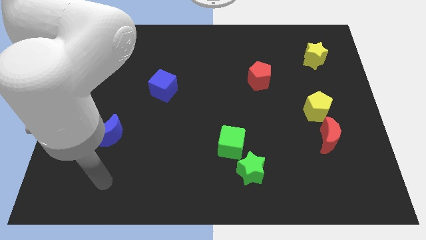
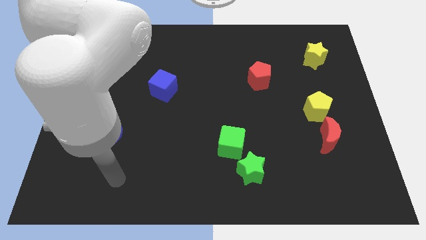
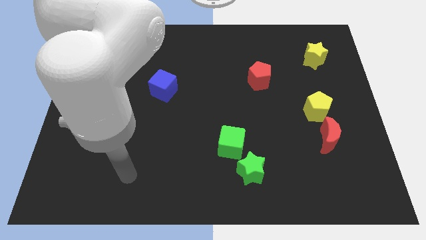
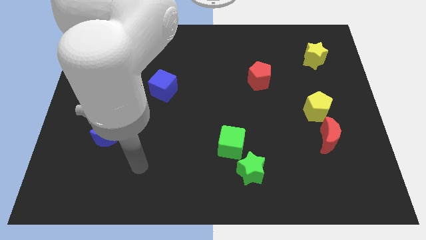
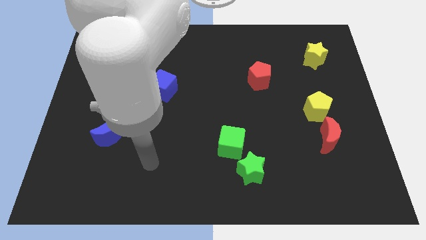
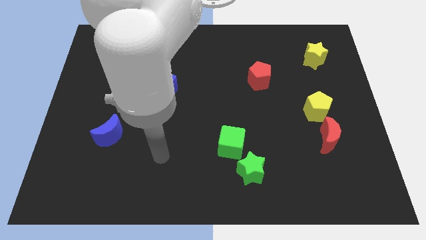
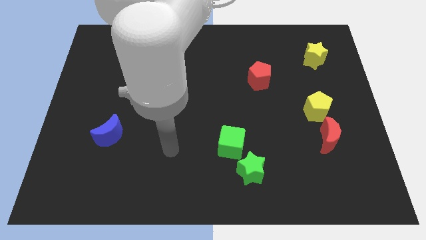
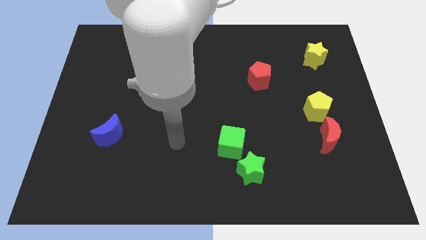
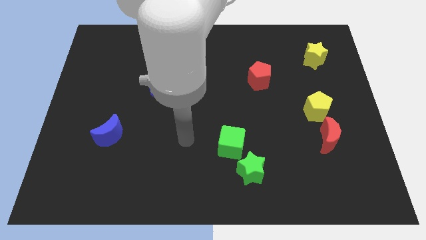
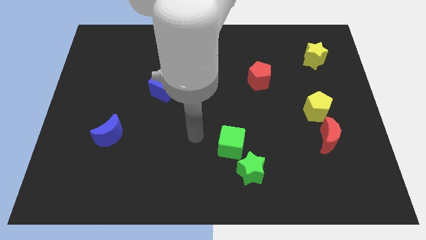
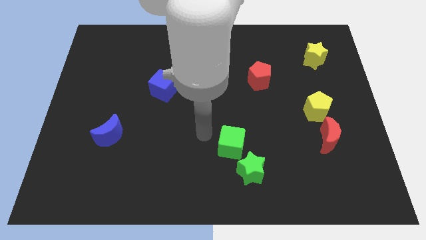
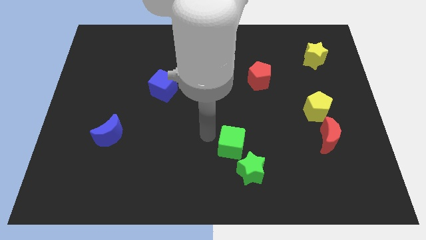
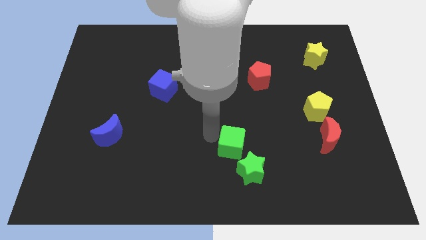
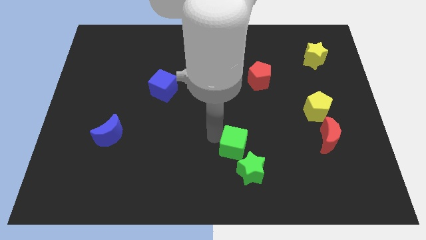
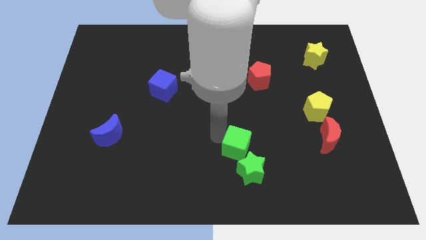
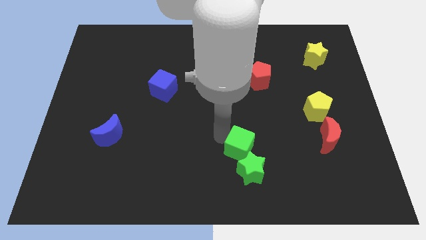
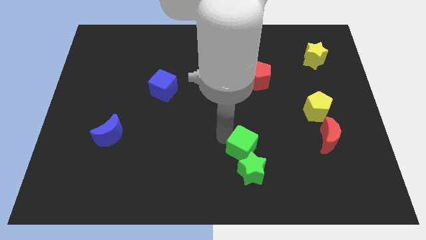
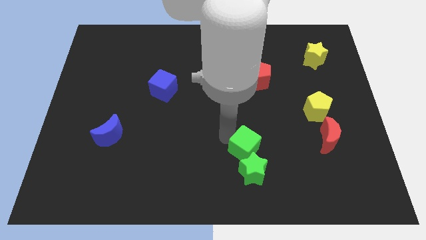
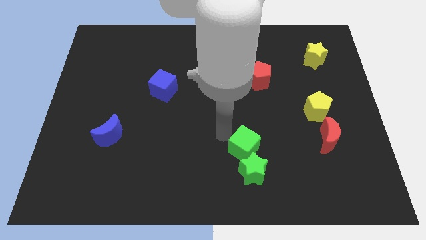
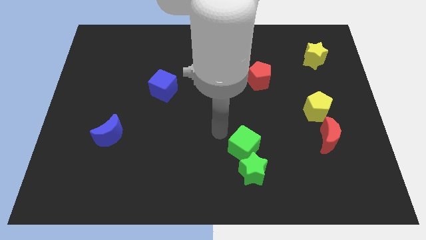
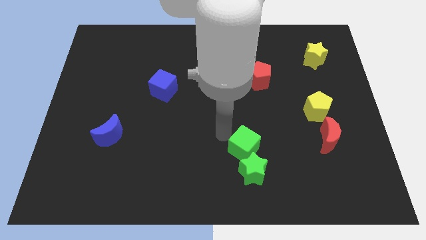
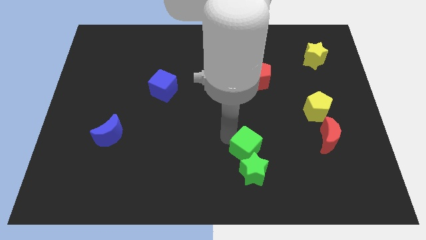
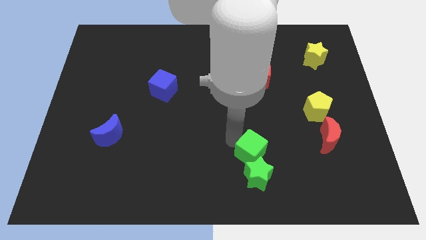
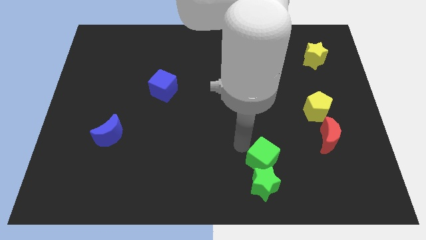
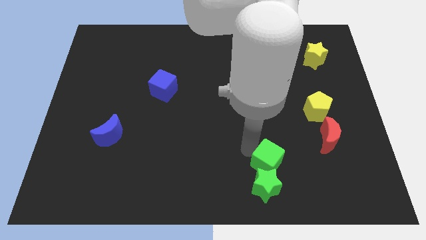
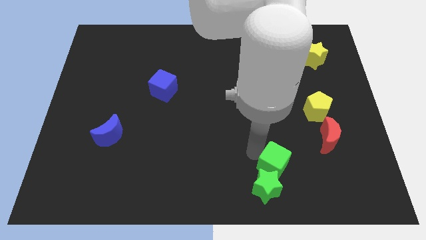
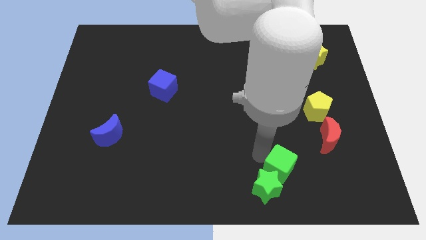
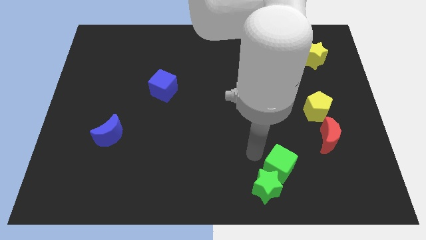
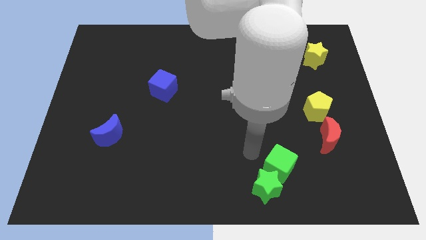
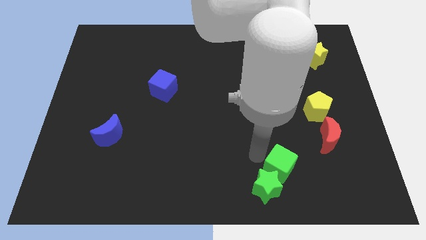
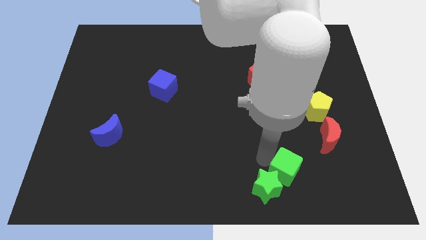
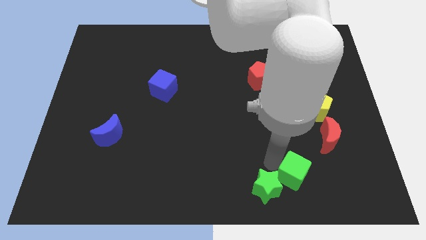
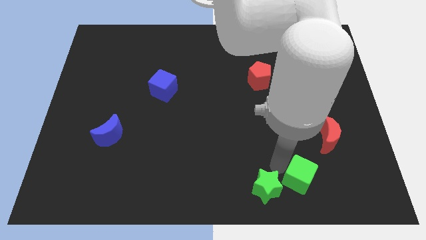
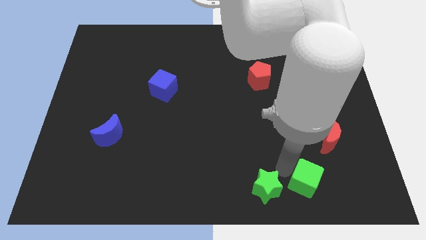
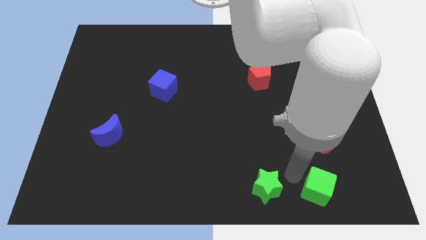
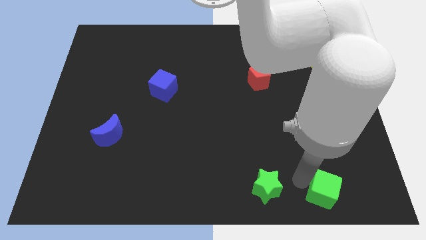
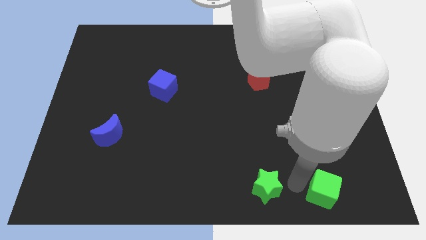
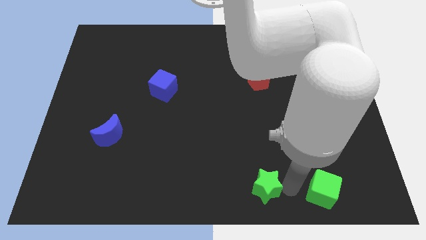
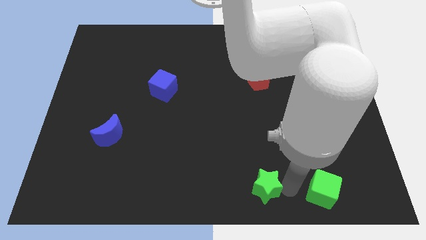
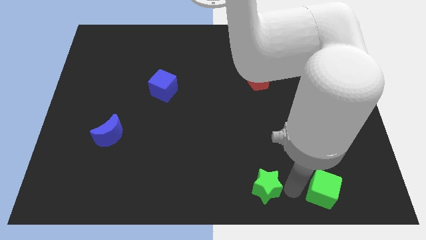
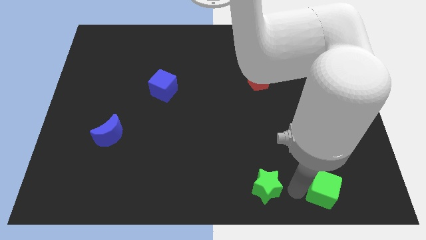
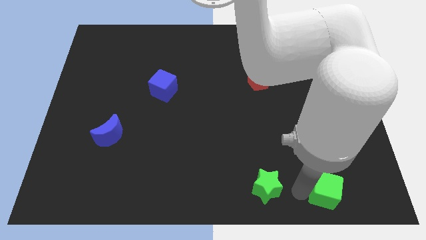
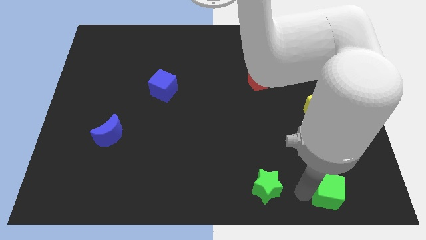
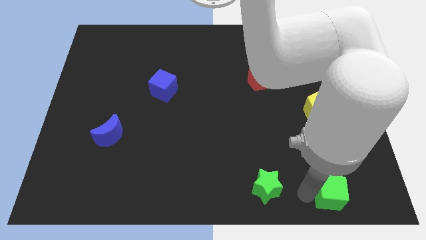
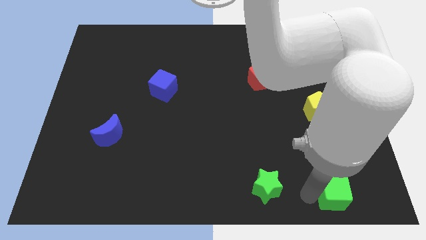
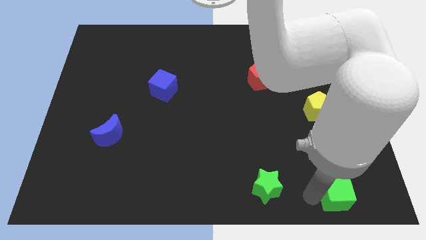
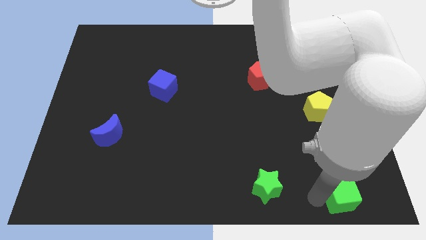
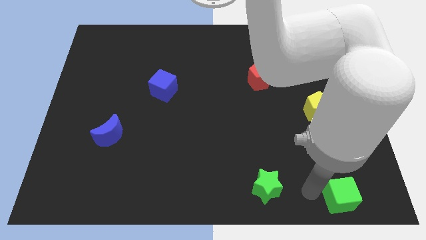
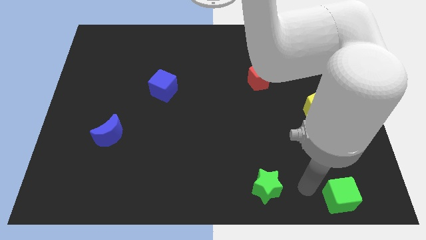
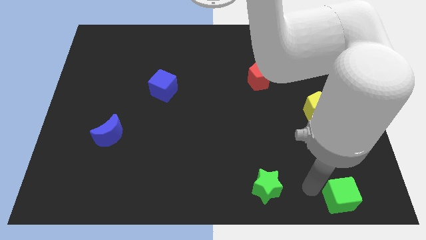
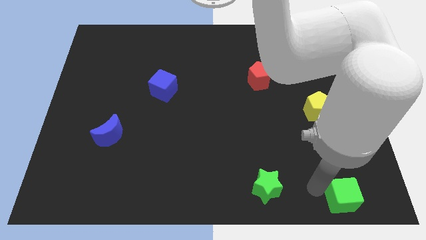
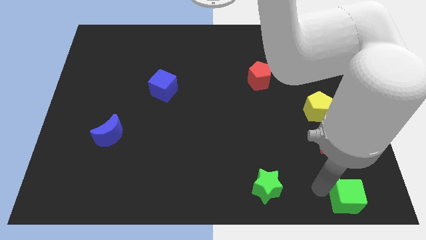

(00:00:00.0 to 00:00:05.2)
put the green cube to the lower right corner

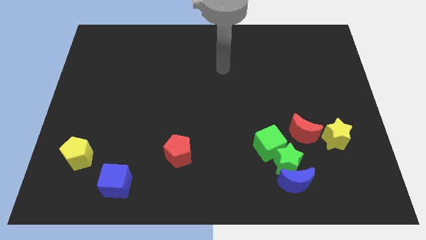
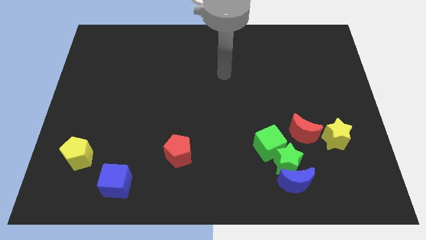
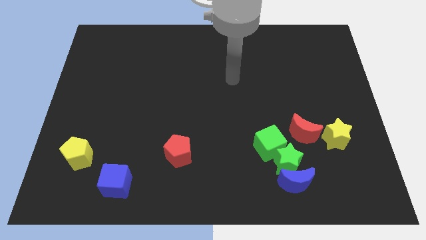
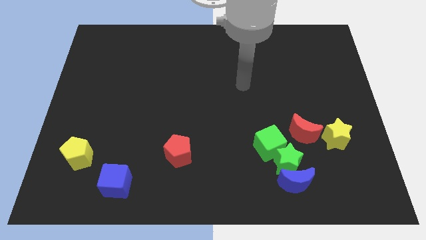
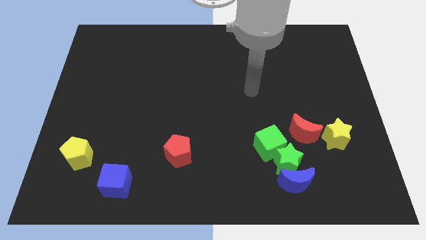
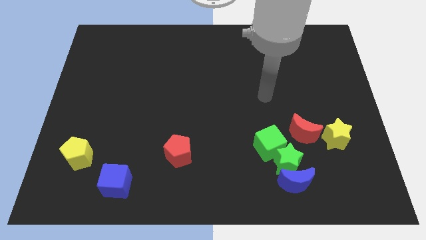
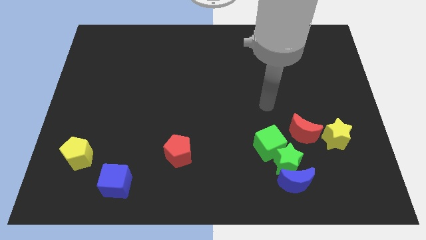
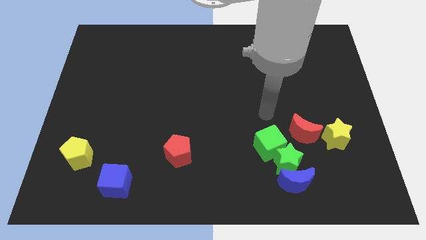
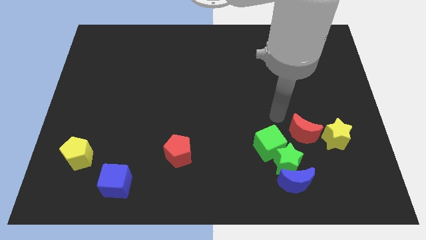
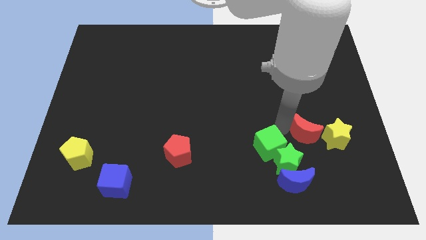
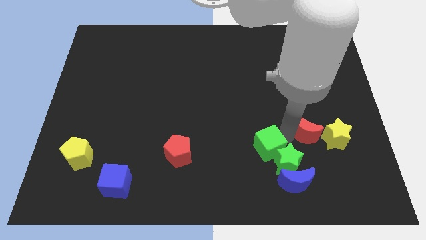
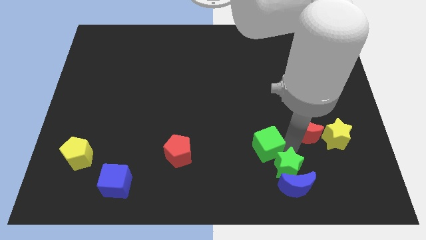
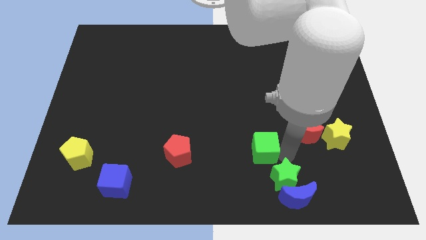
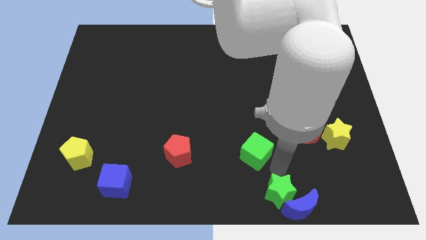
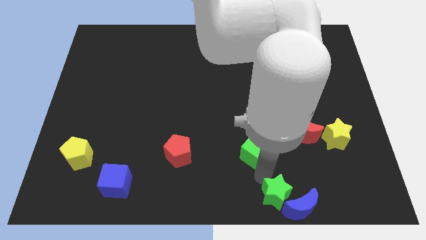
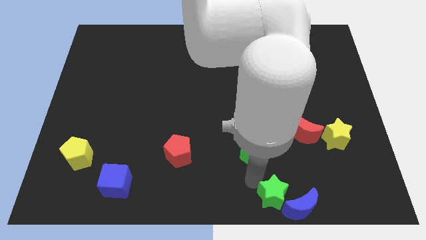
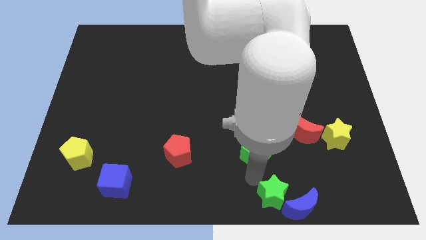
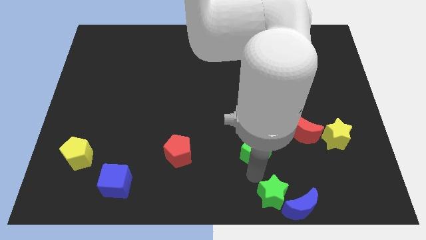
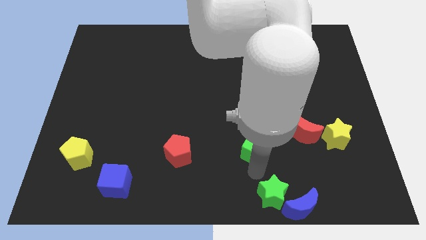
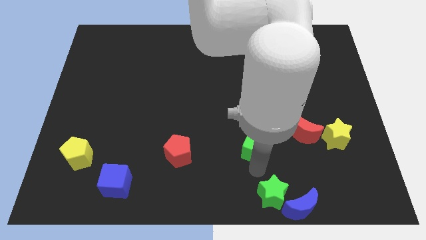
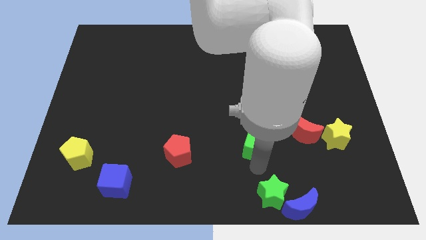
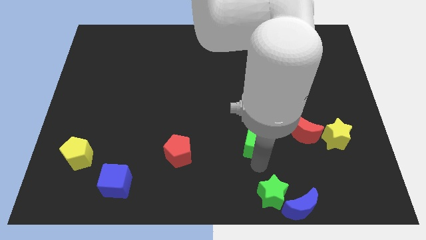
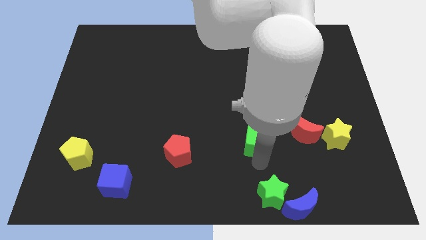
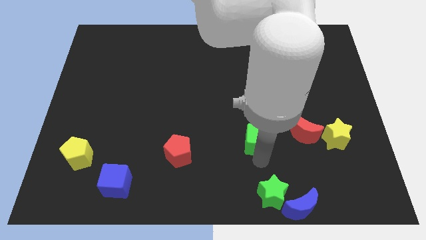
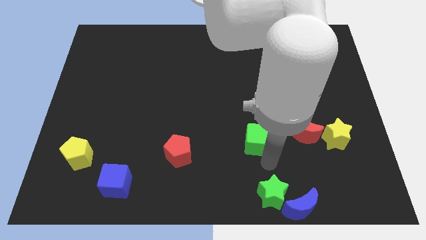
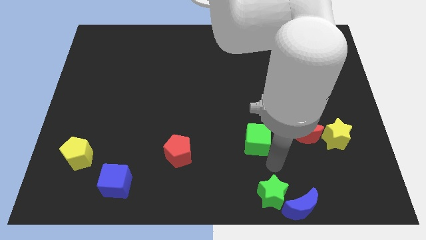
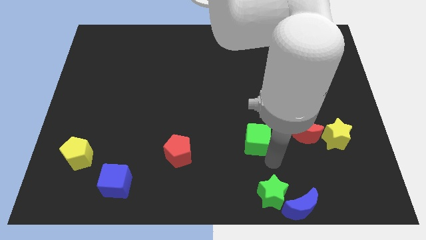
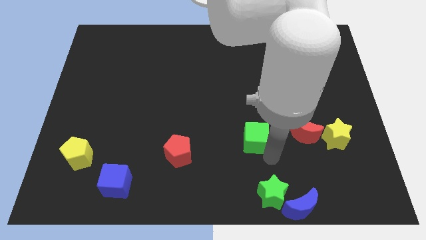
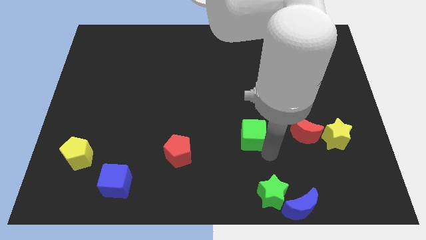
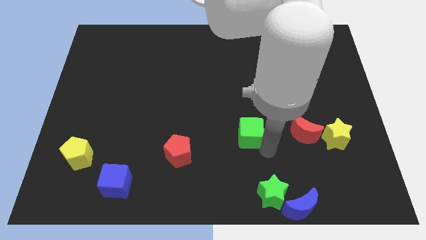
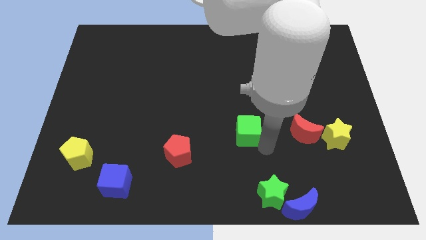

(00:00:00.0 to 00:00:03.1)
push the green cube to the center
